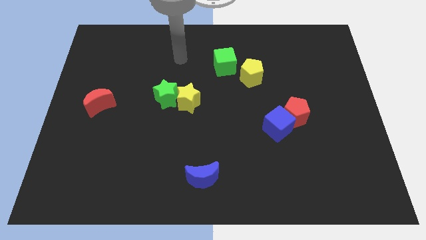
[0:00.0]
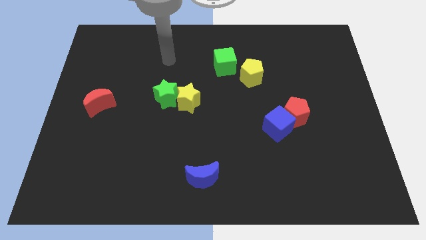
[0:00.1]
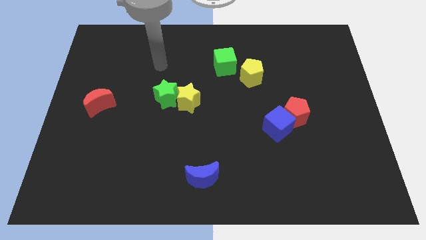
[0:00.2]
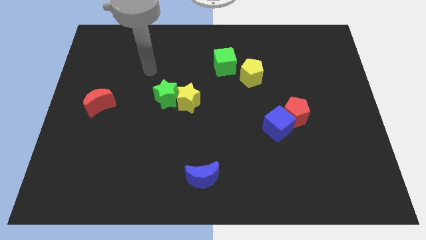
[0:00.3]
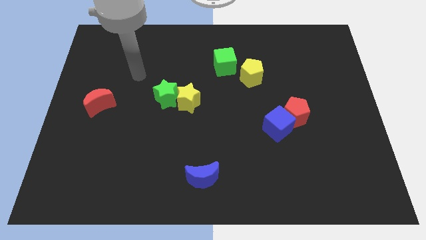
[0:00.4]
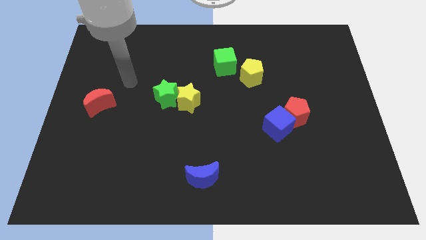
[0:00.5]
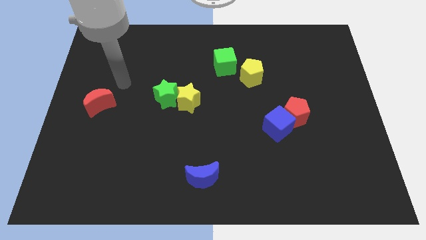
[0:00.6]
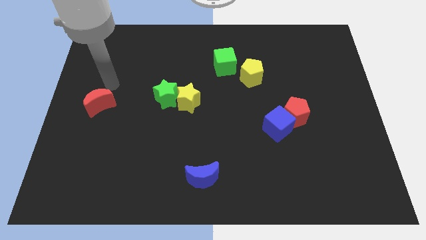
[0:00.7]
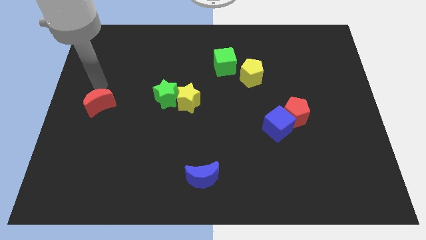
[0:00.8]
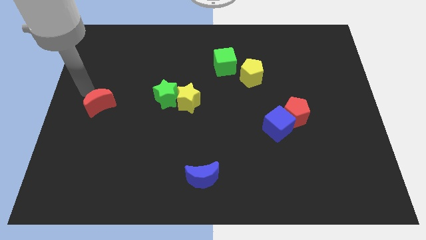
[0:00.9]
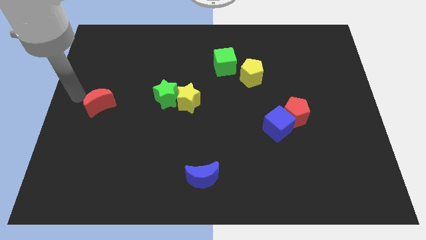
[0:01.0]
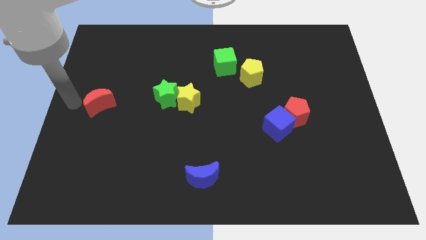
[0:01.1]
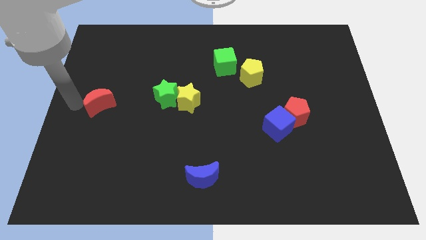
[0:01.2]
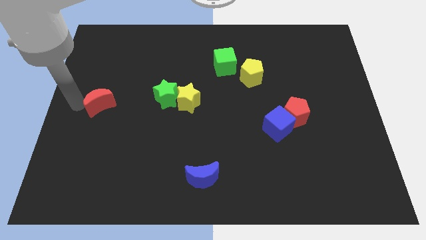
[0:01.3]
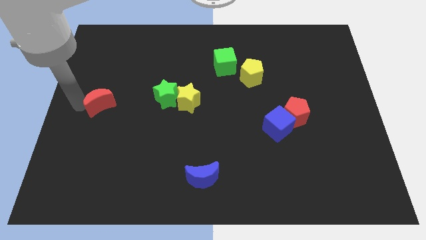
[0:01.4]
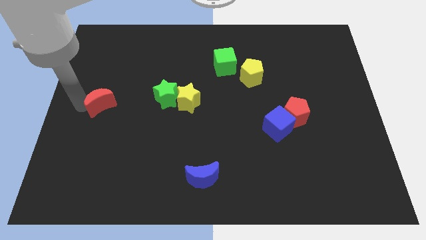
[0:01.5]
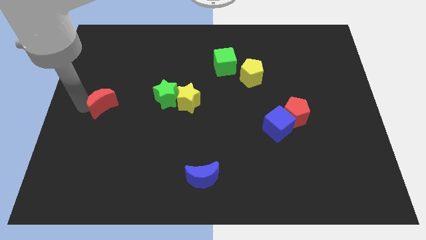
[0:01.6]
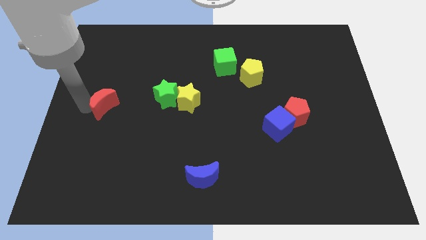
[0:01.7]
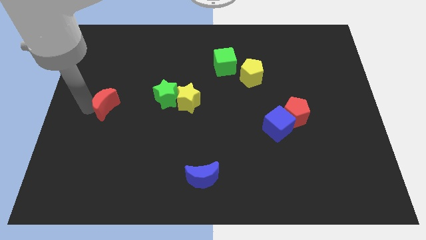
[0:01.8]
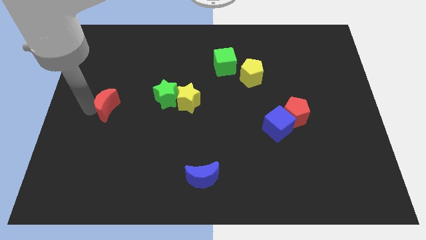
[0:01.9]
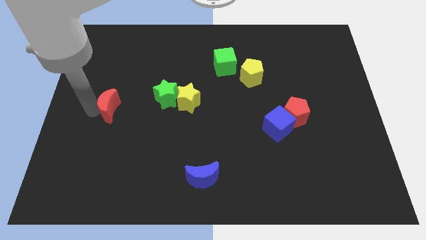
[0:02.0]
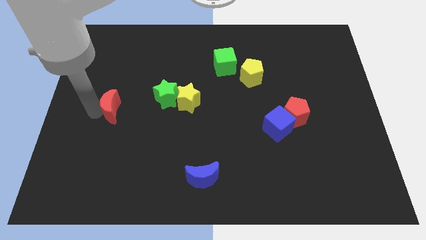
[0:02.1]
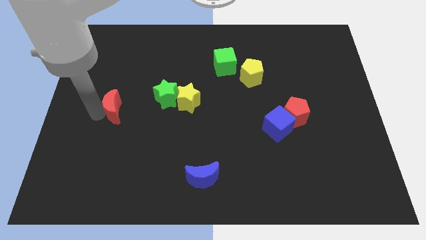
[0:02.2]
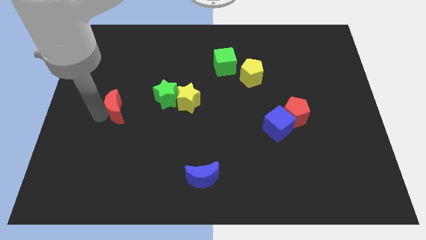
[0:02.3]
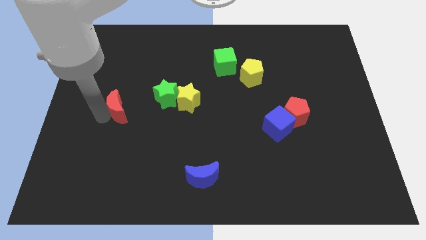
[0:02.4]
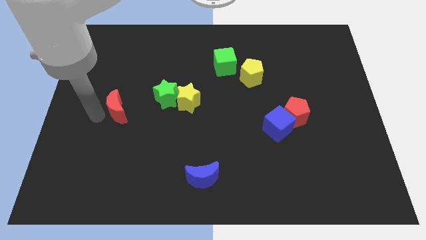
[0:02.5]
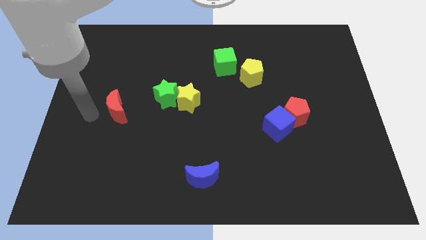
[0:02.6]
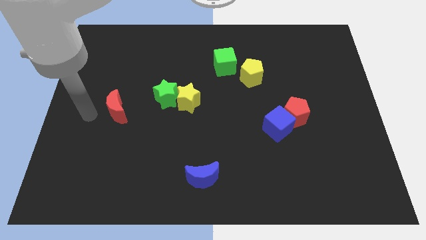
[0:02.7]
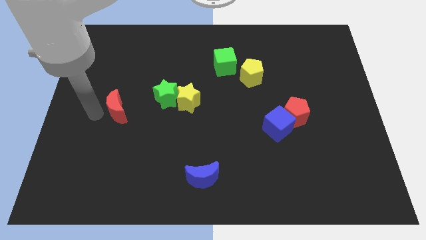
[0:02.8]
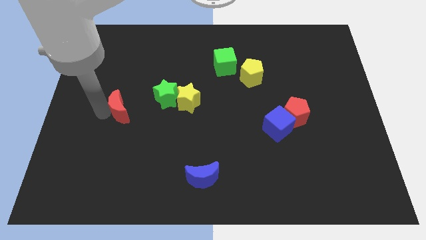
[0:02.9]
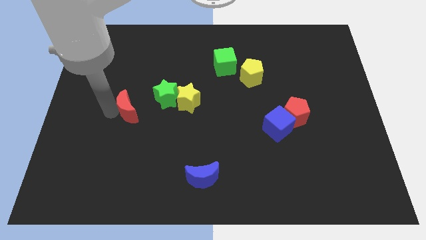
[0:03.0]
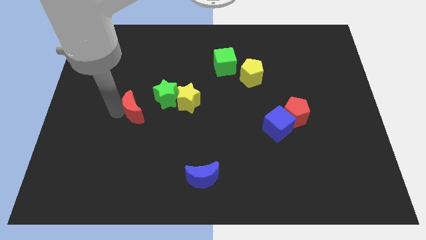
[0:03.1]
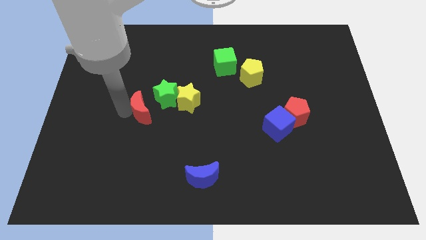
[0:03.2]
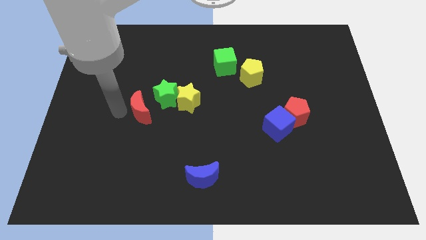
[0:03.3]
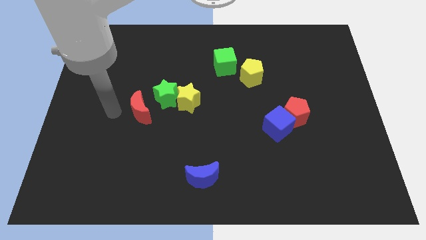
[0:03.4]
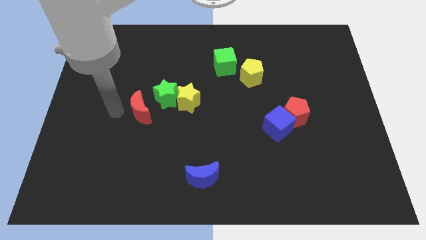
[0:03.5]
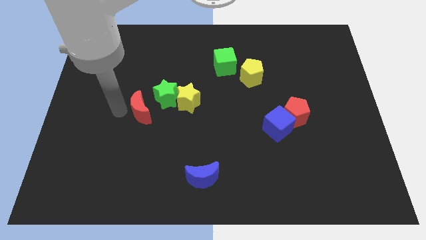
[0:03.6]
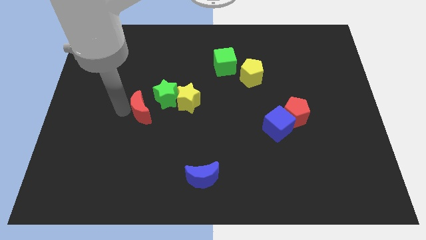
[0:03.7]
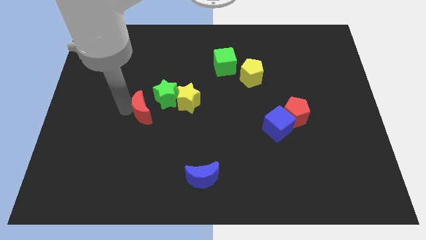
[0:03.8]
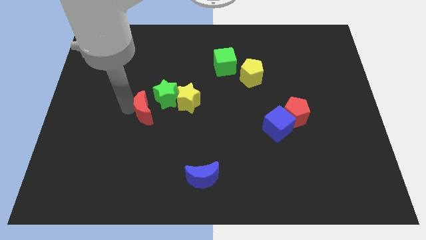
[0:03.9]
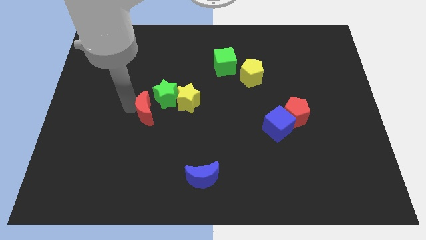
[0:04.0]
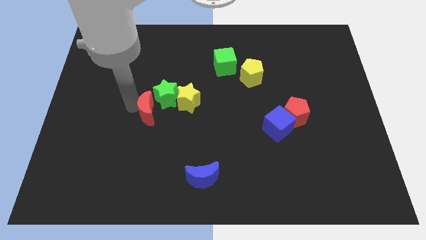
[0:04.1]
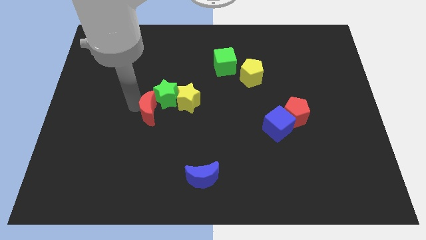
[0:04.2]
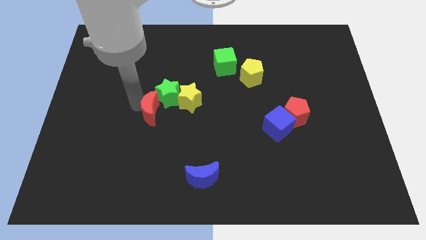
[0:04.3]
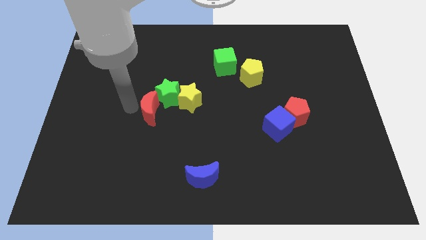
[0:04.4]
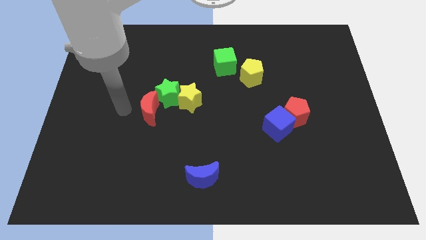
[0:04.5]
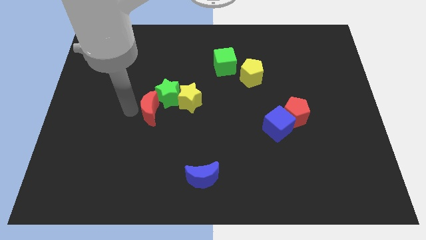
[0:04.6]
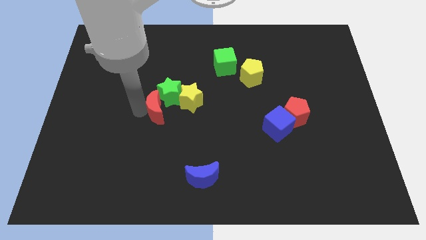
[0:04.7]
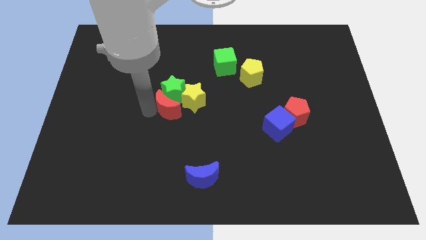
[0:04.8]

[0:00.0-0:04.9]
put the red moon to the bottom right of the green star

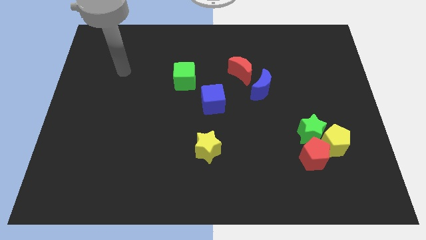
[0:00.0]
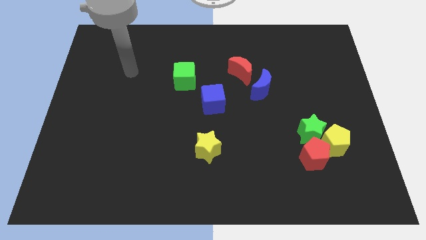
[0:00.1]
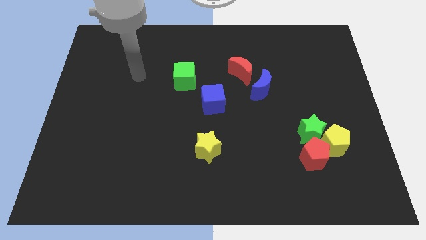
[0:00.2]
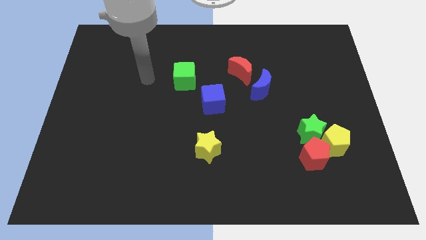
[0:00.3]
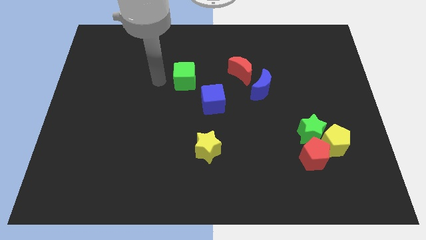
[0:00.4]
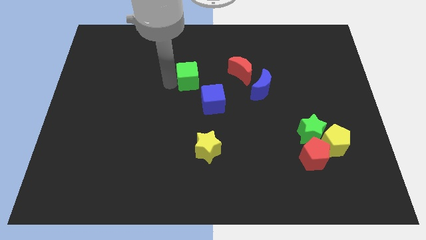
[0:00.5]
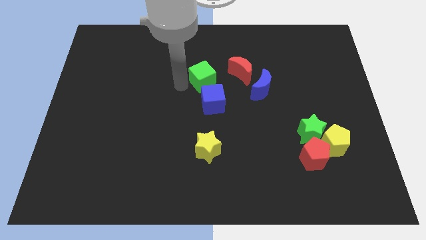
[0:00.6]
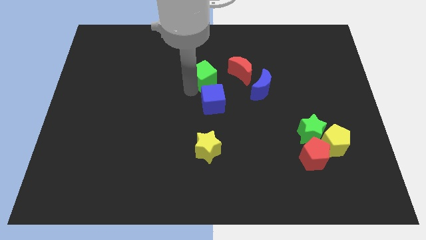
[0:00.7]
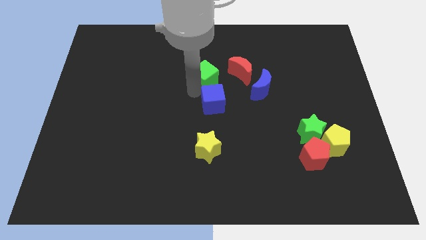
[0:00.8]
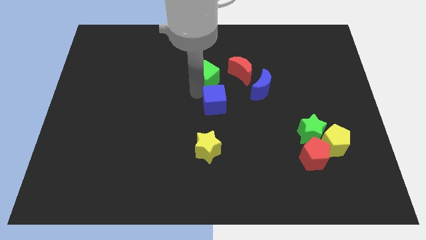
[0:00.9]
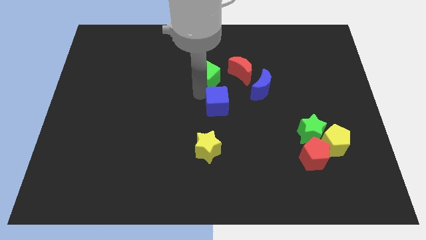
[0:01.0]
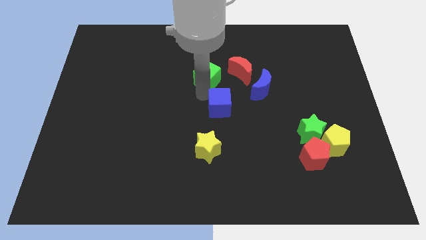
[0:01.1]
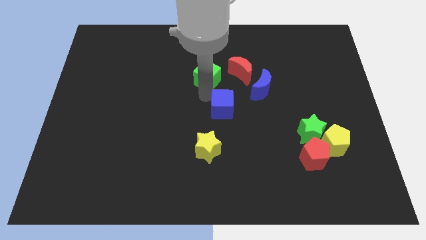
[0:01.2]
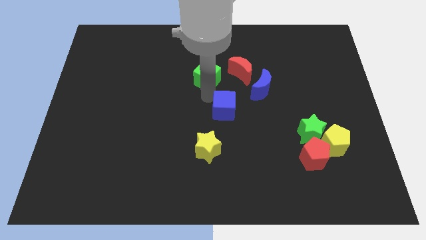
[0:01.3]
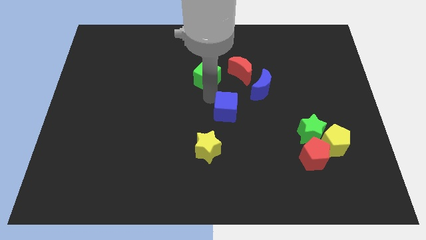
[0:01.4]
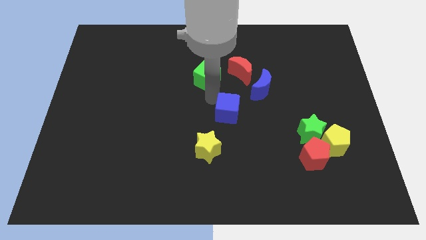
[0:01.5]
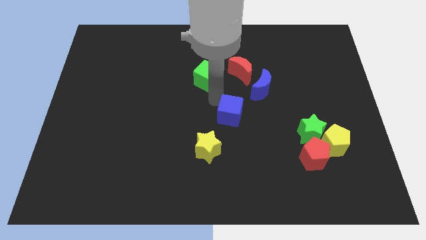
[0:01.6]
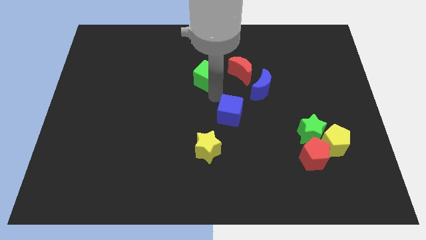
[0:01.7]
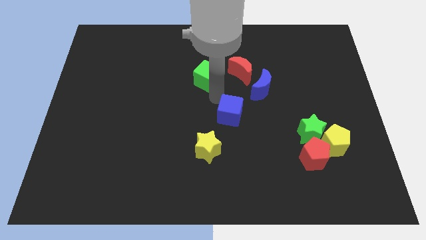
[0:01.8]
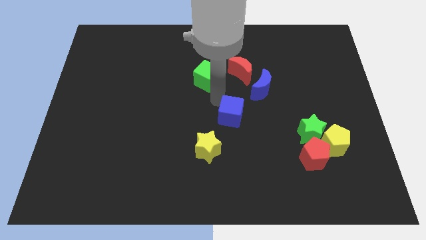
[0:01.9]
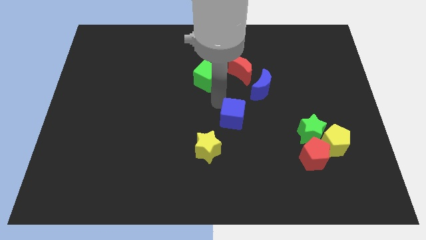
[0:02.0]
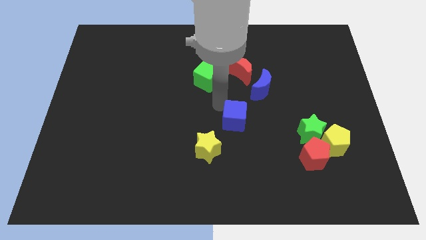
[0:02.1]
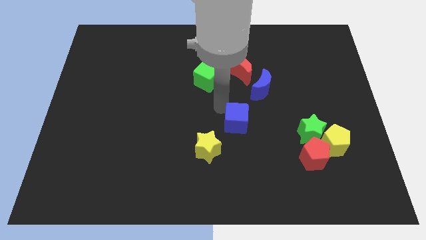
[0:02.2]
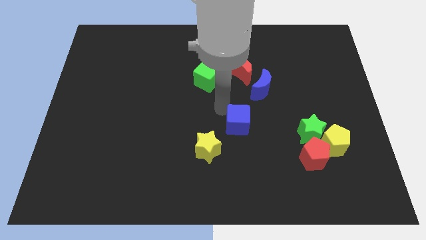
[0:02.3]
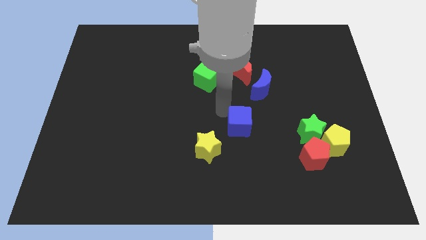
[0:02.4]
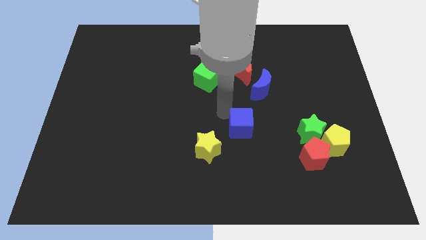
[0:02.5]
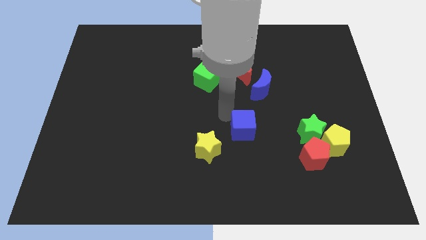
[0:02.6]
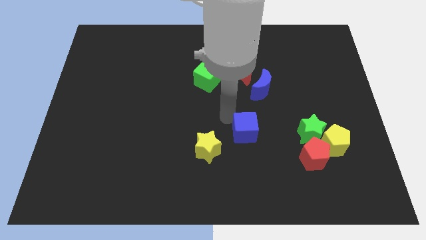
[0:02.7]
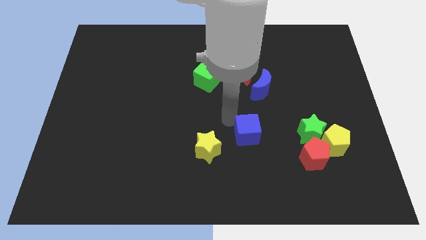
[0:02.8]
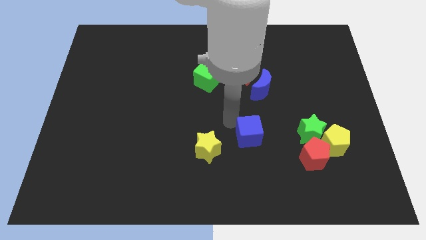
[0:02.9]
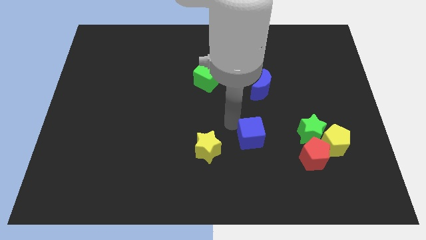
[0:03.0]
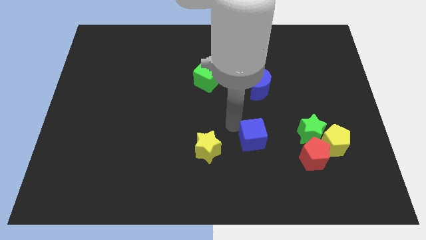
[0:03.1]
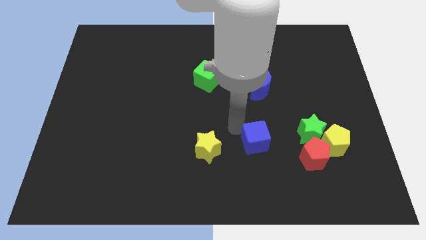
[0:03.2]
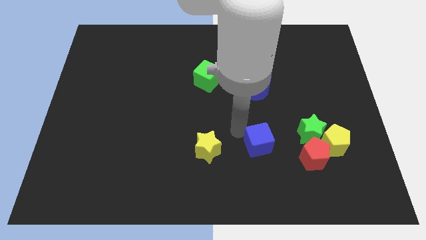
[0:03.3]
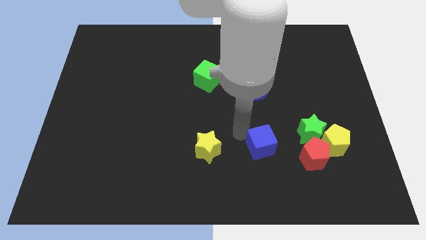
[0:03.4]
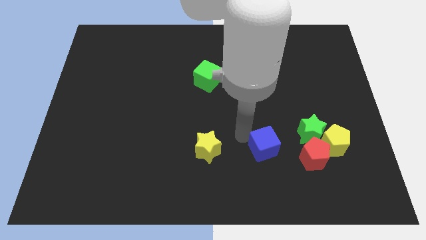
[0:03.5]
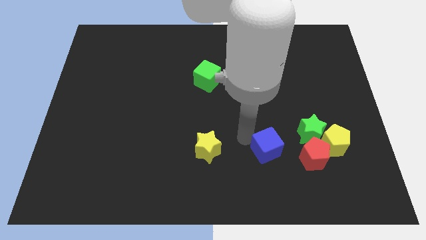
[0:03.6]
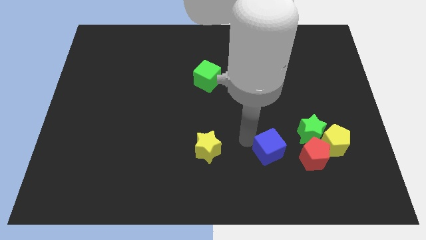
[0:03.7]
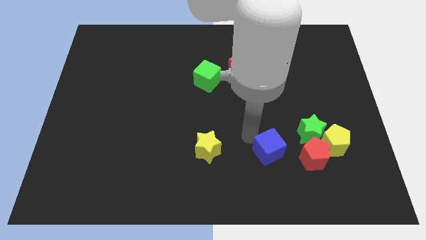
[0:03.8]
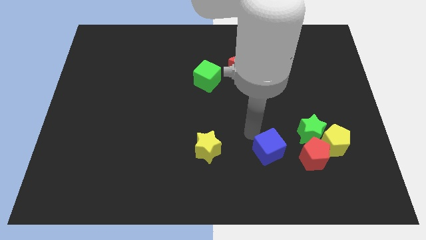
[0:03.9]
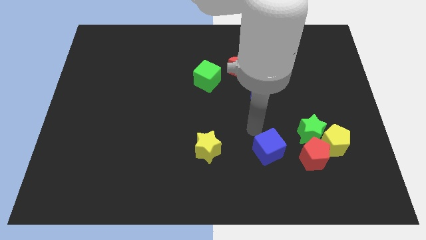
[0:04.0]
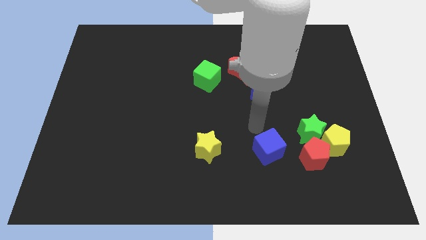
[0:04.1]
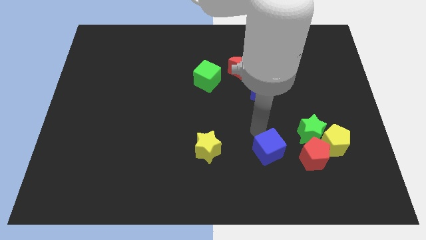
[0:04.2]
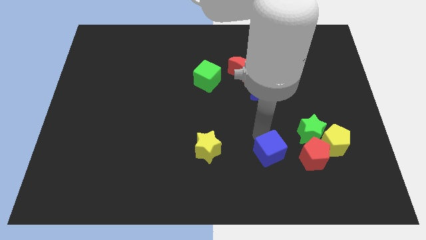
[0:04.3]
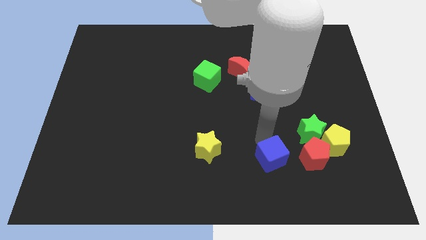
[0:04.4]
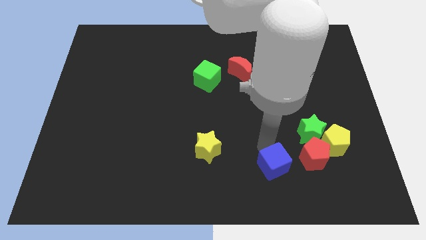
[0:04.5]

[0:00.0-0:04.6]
put the blue cube diagonally down and to the left of the red pentagon
